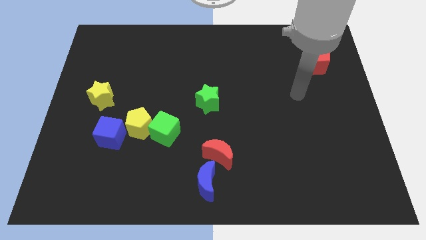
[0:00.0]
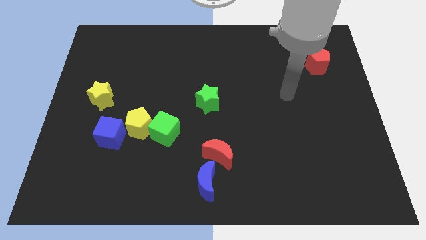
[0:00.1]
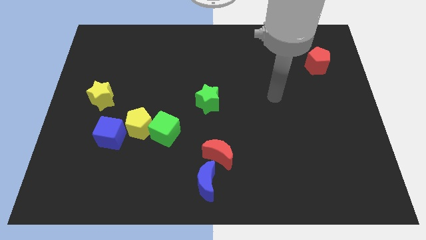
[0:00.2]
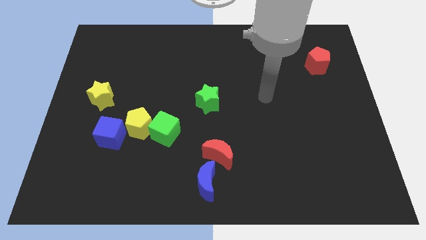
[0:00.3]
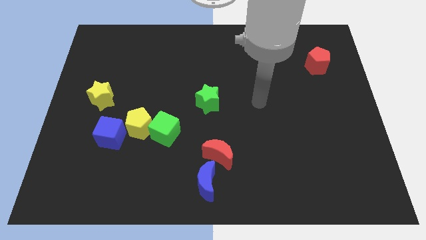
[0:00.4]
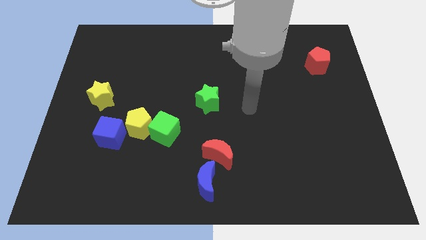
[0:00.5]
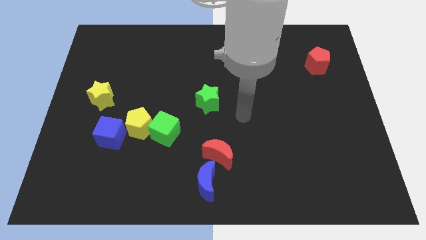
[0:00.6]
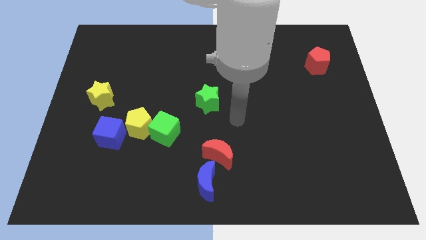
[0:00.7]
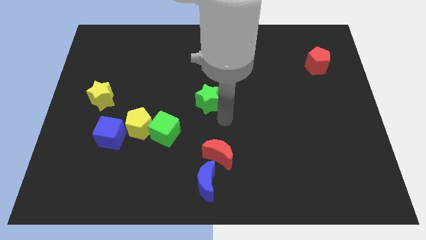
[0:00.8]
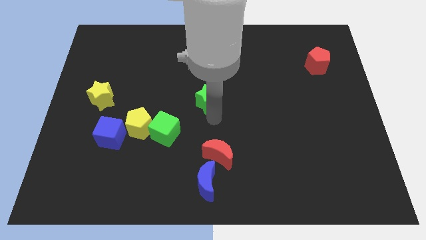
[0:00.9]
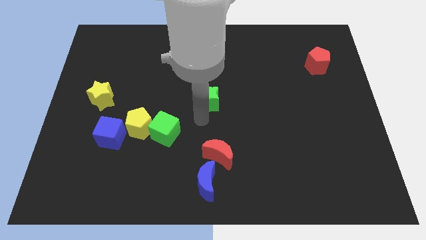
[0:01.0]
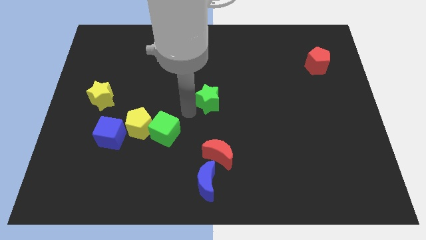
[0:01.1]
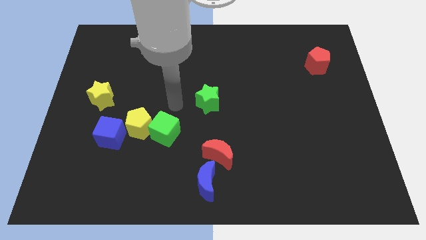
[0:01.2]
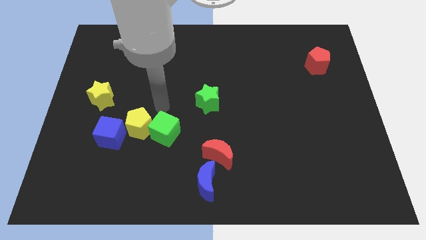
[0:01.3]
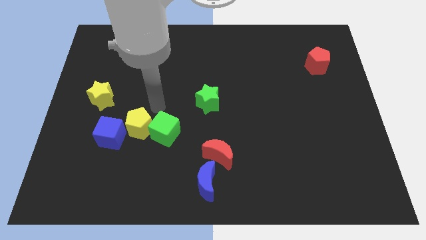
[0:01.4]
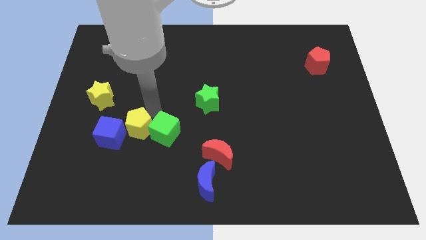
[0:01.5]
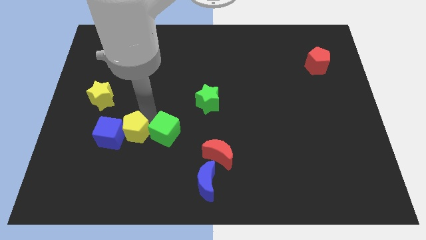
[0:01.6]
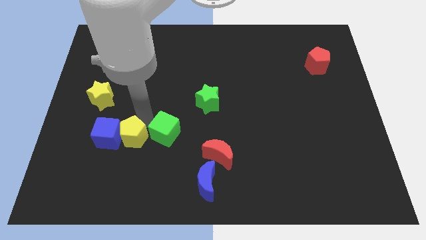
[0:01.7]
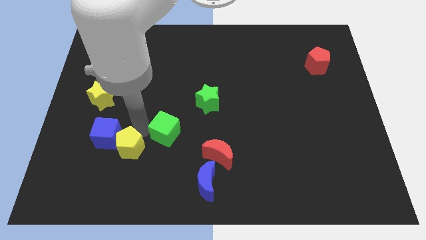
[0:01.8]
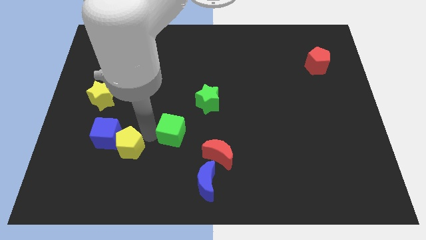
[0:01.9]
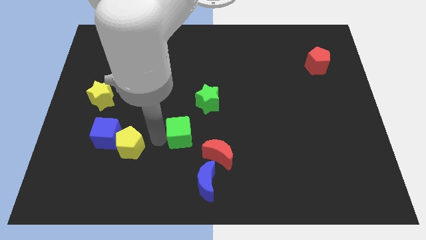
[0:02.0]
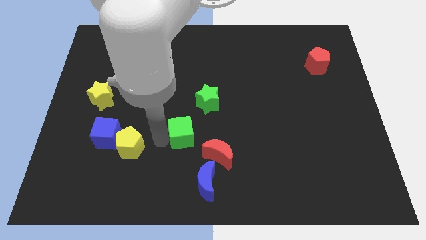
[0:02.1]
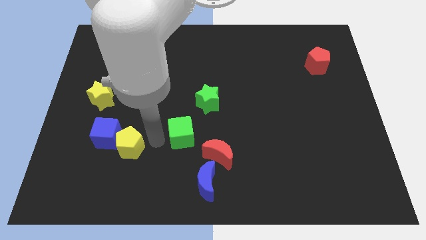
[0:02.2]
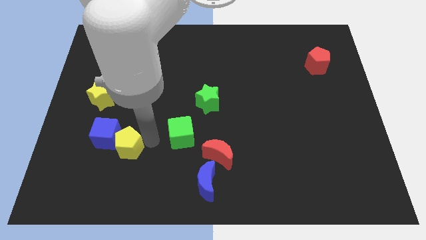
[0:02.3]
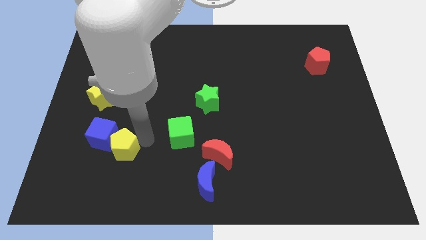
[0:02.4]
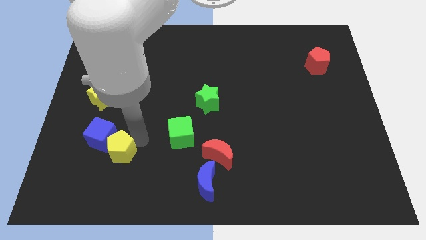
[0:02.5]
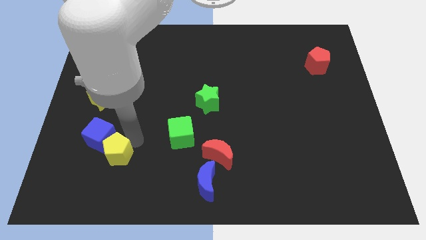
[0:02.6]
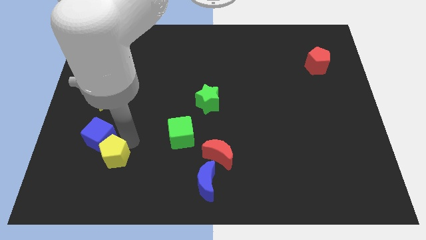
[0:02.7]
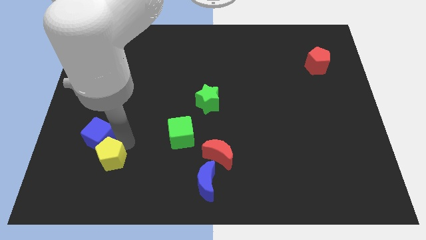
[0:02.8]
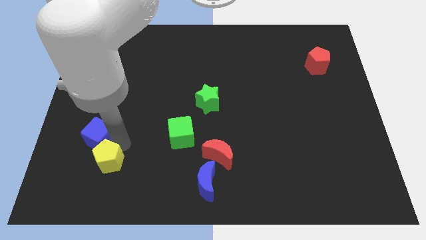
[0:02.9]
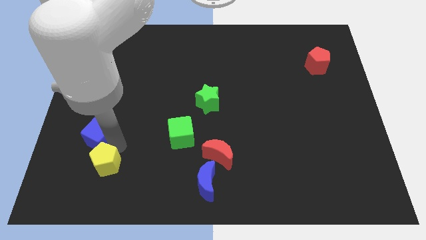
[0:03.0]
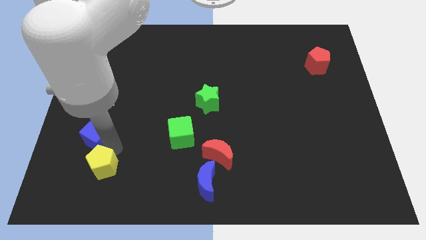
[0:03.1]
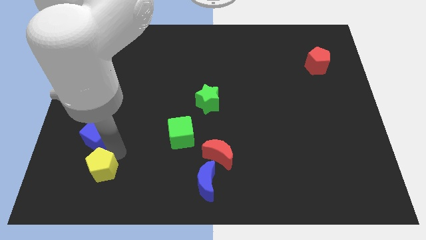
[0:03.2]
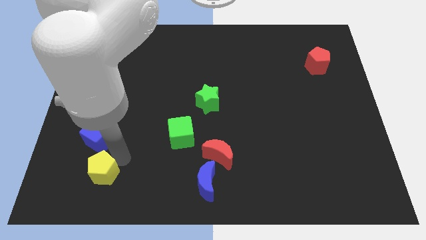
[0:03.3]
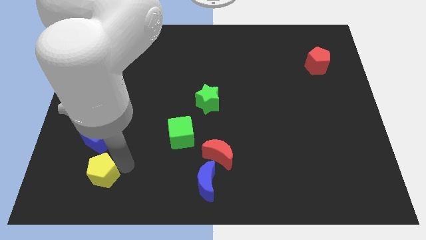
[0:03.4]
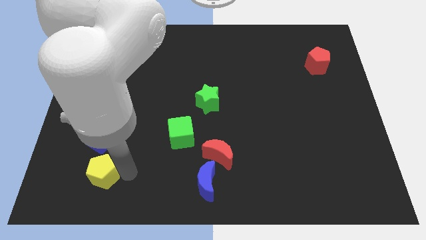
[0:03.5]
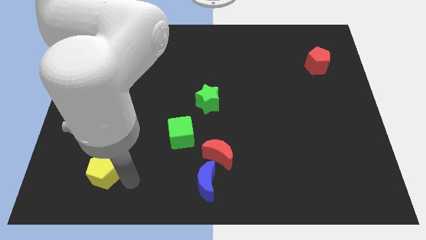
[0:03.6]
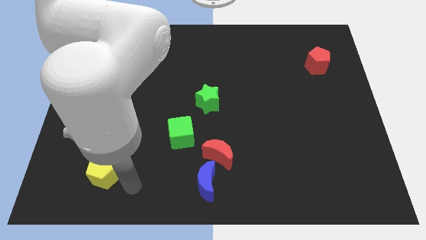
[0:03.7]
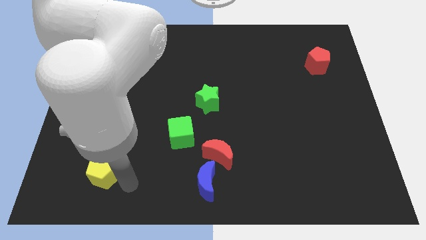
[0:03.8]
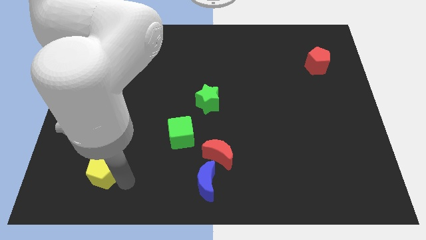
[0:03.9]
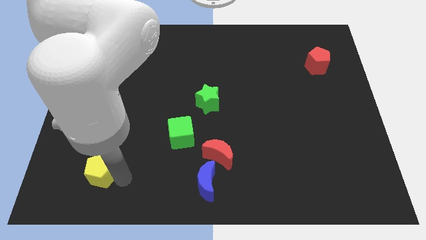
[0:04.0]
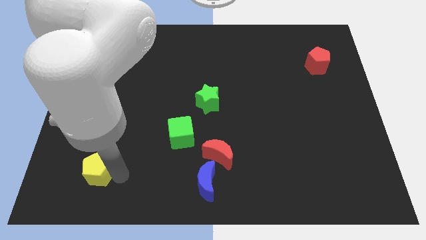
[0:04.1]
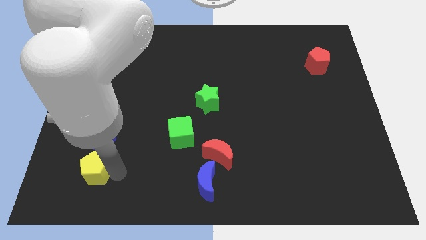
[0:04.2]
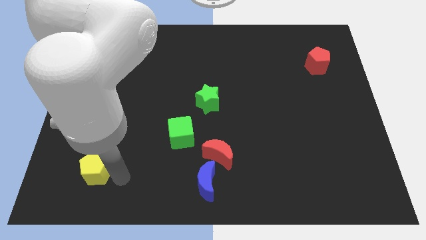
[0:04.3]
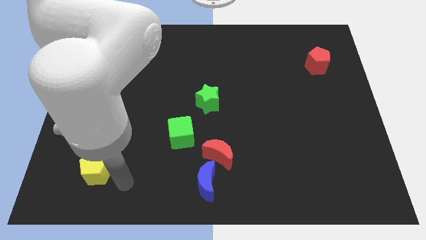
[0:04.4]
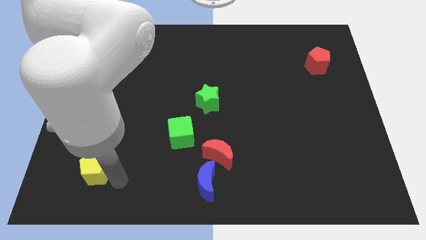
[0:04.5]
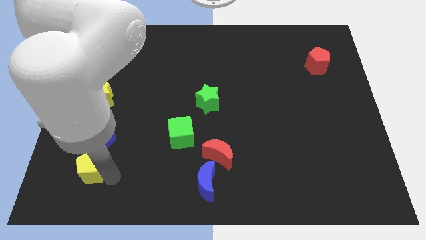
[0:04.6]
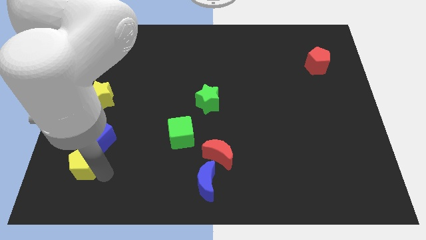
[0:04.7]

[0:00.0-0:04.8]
slide the yellow pentagon to the bottom left of the blue cube

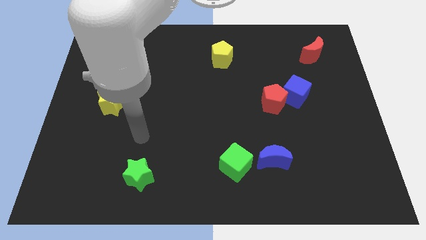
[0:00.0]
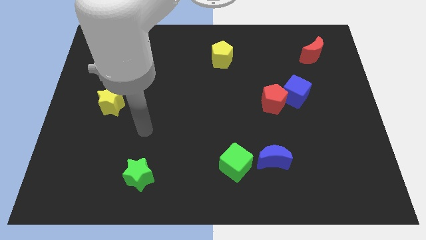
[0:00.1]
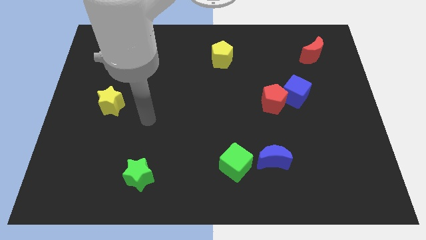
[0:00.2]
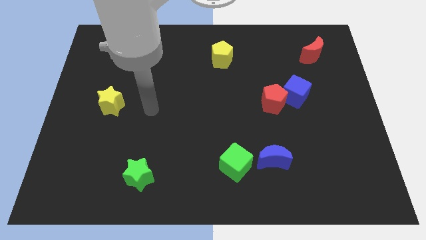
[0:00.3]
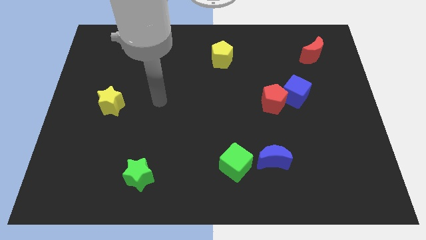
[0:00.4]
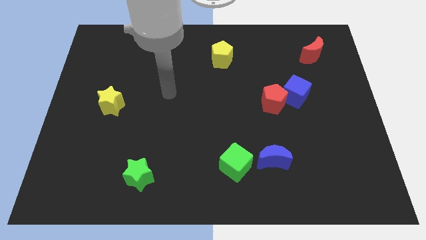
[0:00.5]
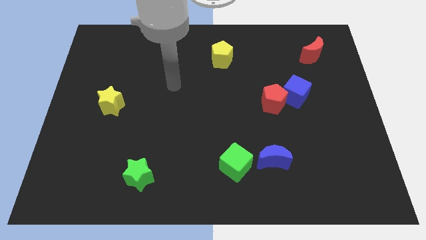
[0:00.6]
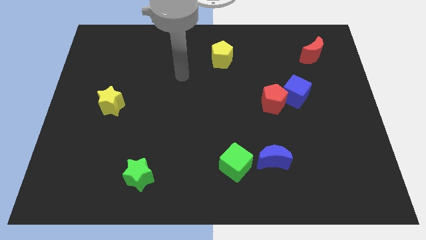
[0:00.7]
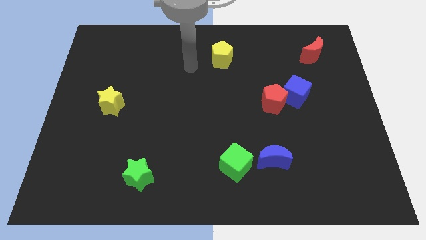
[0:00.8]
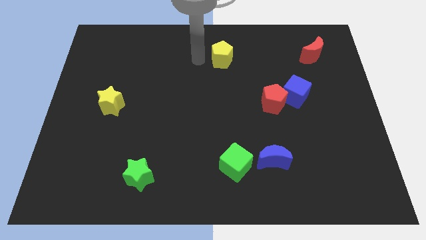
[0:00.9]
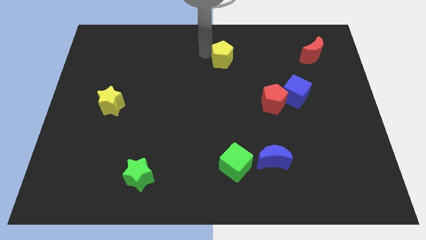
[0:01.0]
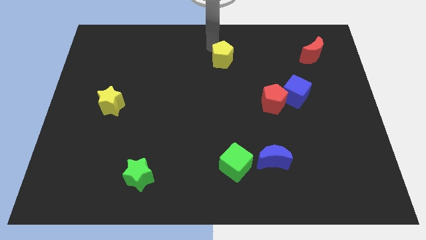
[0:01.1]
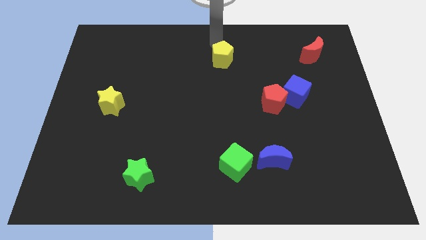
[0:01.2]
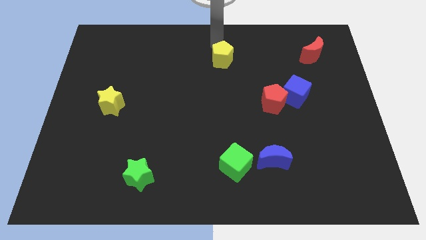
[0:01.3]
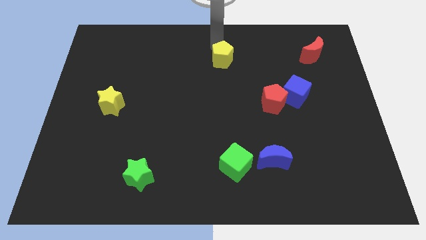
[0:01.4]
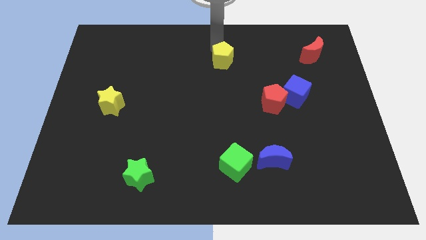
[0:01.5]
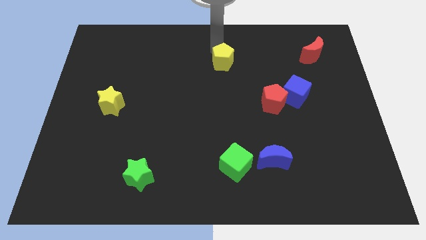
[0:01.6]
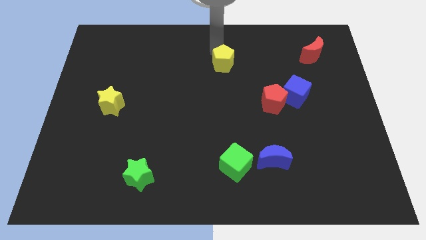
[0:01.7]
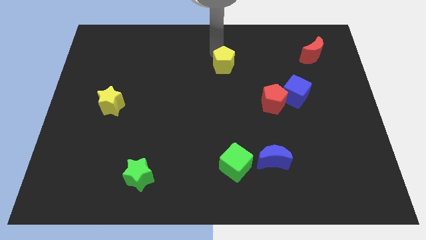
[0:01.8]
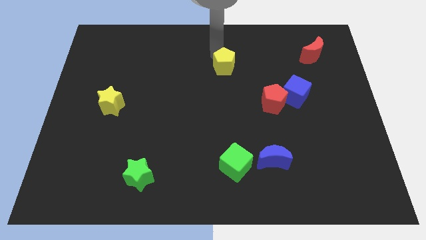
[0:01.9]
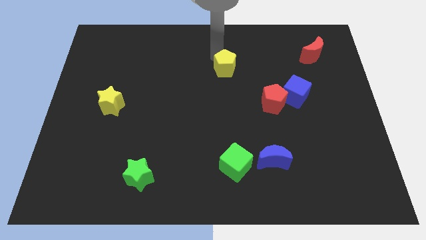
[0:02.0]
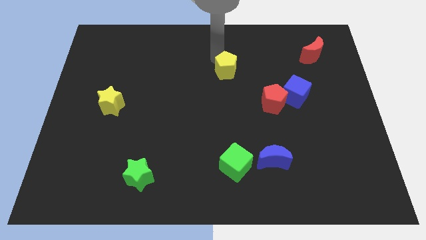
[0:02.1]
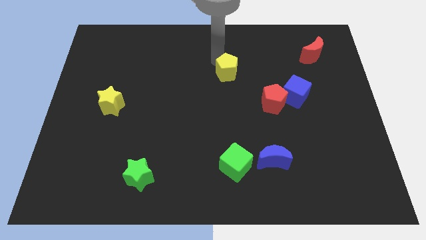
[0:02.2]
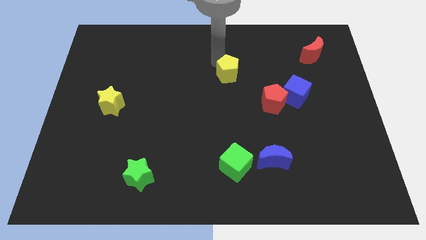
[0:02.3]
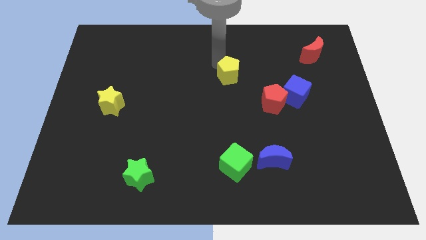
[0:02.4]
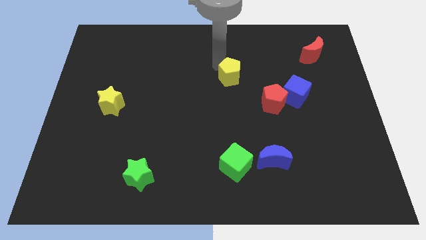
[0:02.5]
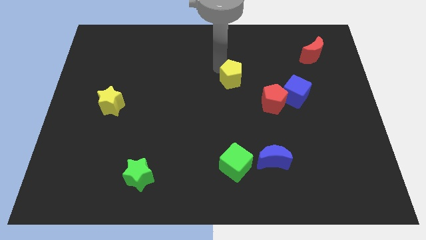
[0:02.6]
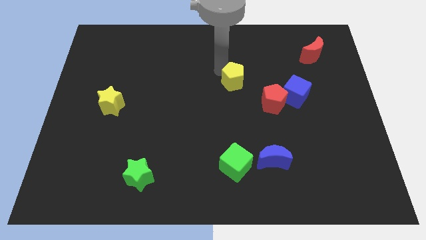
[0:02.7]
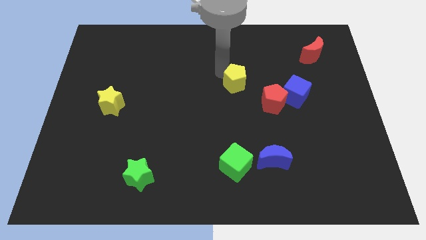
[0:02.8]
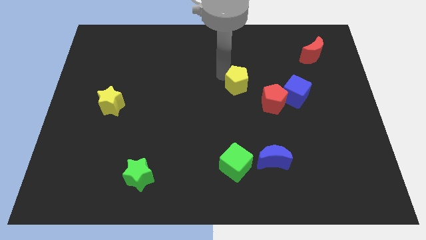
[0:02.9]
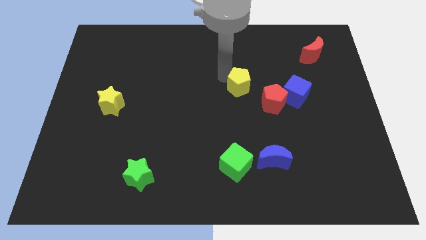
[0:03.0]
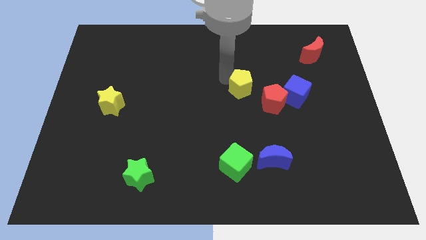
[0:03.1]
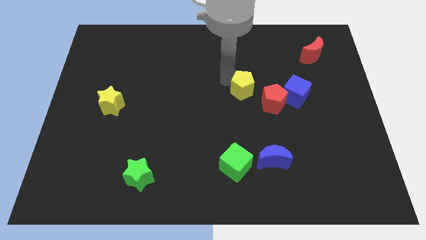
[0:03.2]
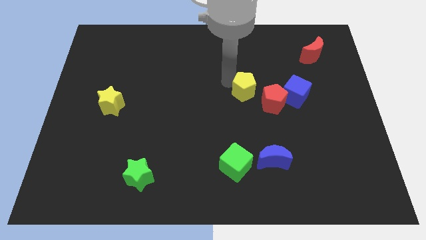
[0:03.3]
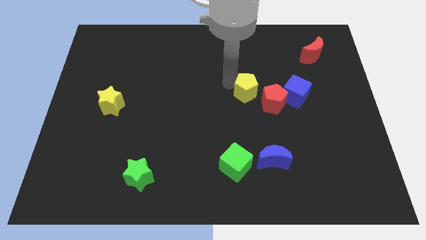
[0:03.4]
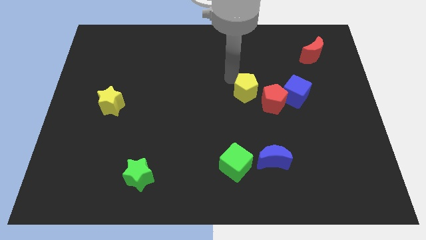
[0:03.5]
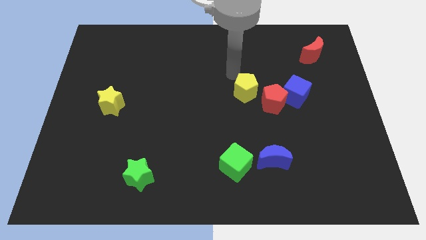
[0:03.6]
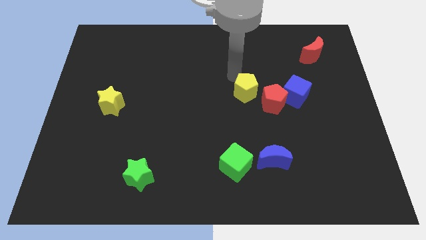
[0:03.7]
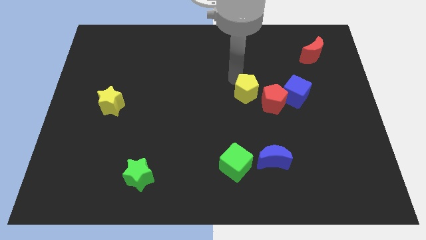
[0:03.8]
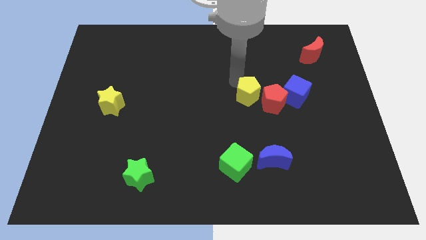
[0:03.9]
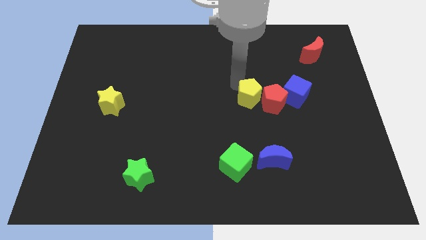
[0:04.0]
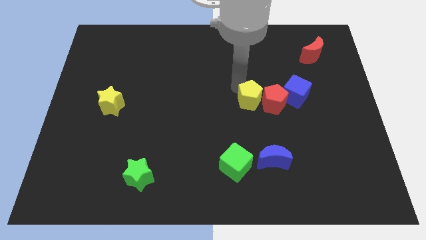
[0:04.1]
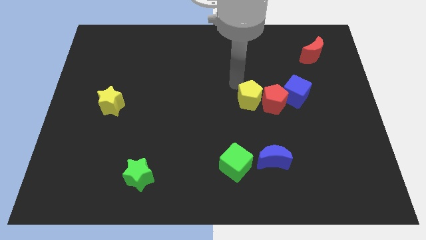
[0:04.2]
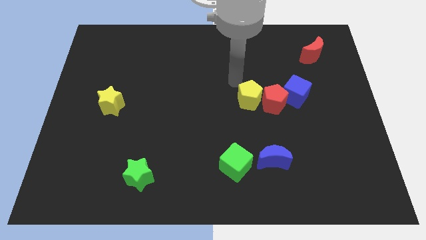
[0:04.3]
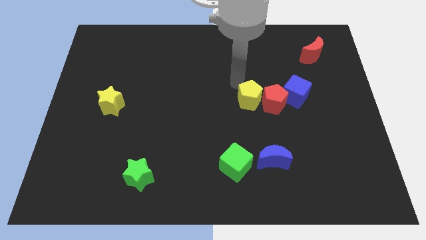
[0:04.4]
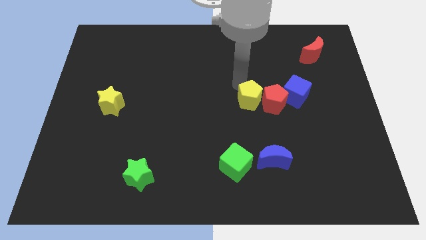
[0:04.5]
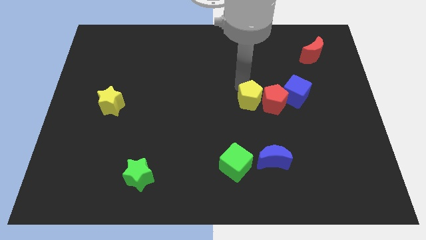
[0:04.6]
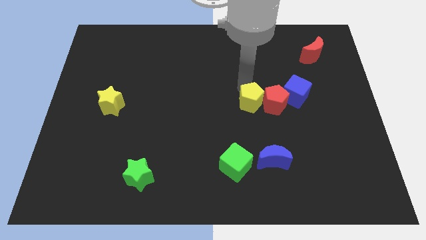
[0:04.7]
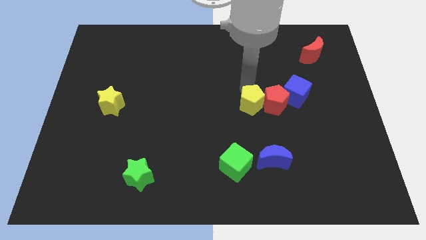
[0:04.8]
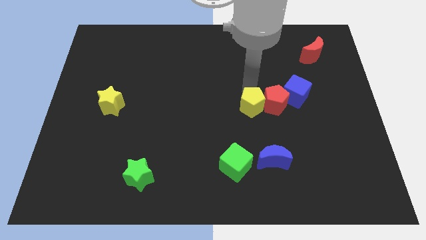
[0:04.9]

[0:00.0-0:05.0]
put the yellow pentagon to the top of the blue moon
